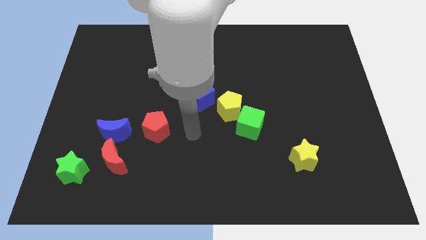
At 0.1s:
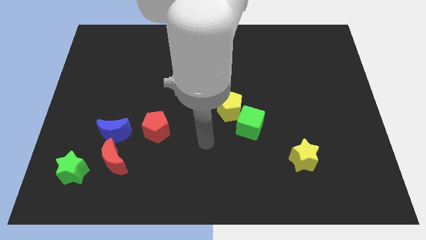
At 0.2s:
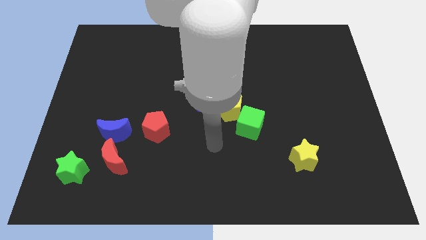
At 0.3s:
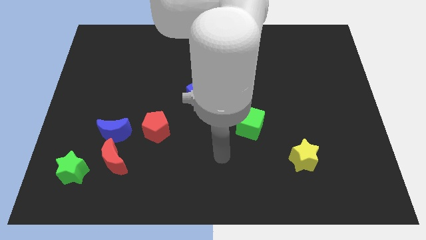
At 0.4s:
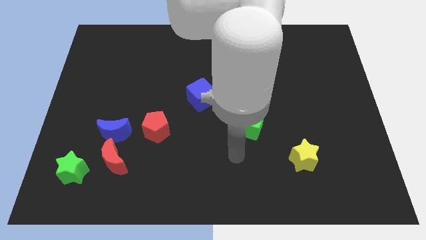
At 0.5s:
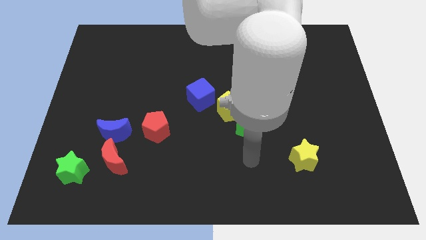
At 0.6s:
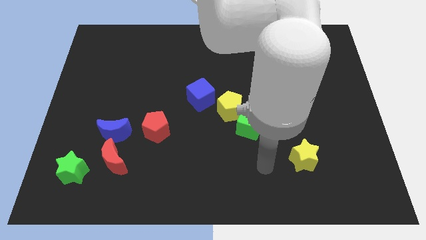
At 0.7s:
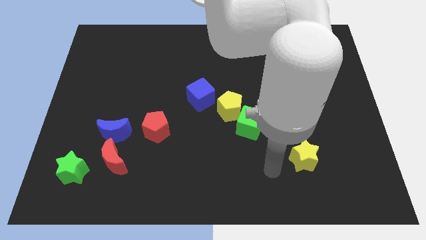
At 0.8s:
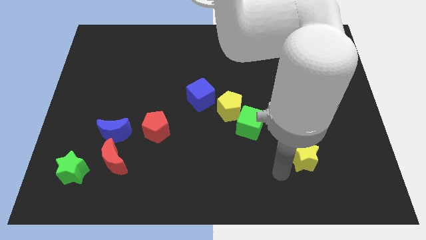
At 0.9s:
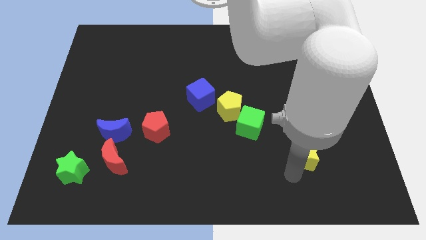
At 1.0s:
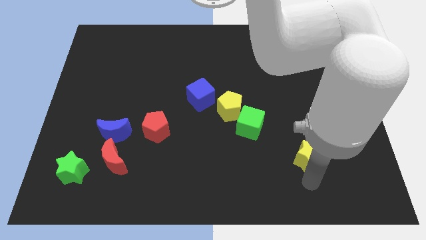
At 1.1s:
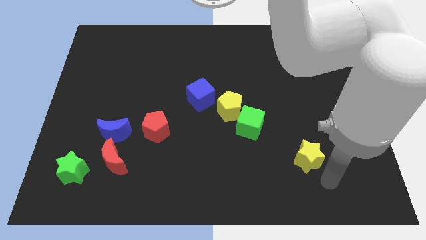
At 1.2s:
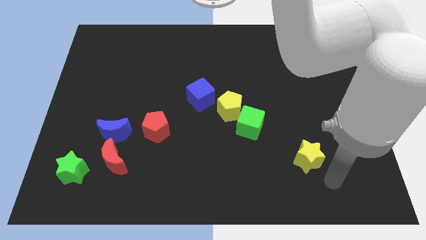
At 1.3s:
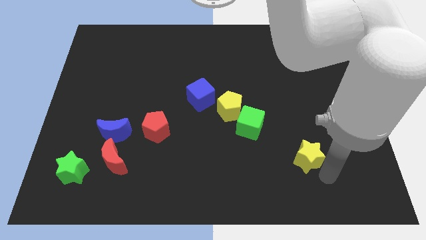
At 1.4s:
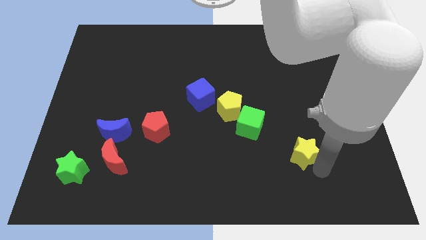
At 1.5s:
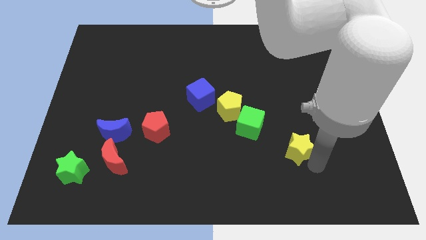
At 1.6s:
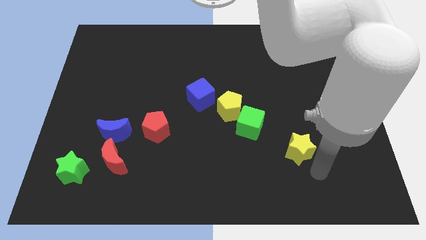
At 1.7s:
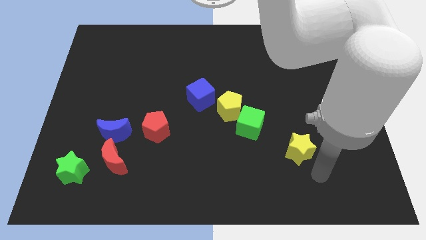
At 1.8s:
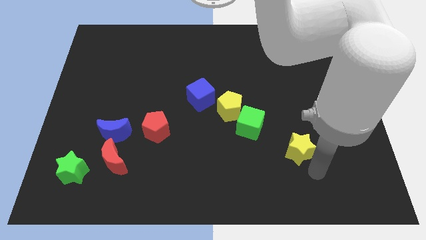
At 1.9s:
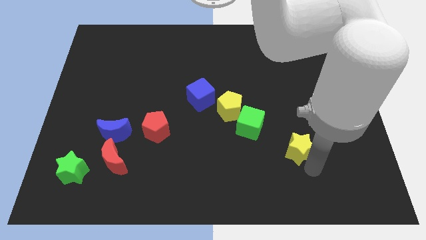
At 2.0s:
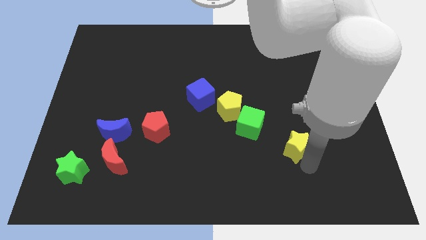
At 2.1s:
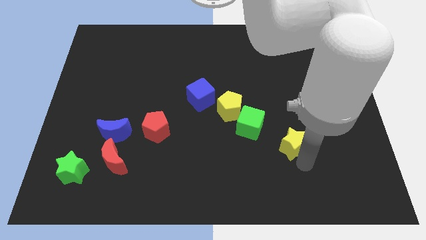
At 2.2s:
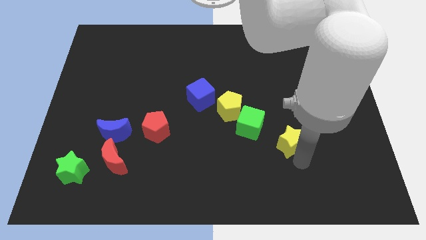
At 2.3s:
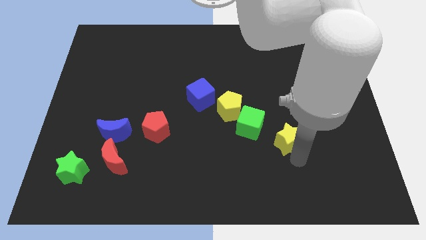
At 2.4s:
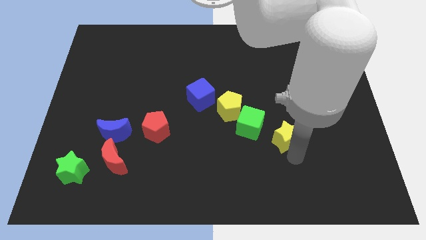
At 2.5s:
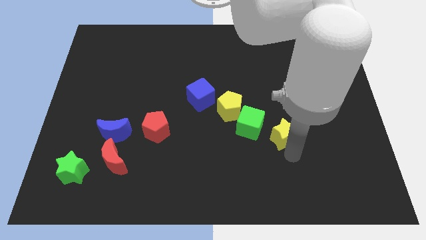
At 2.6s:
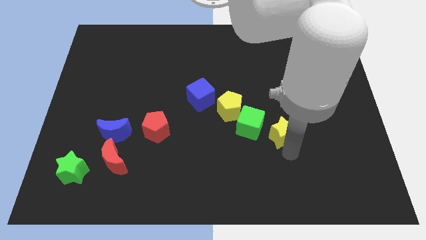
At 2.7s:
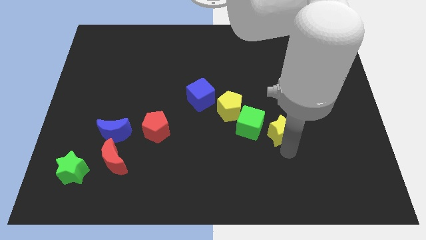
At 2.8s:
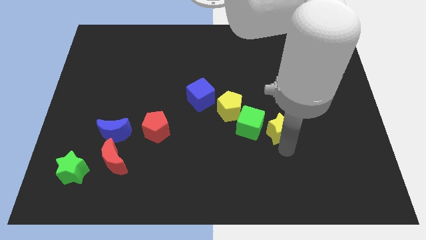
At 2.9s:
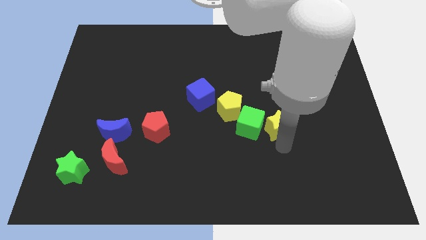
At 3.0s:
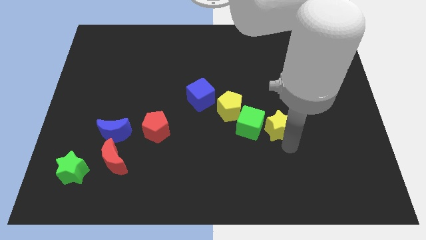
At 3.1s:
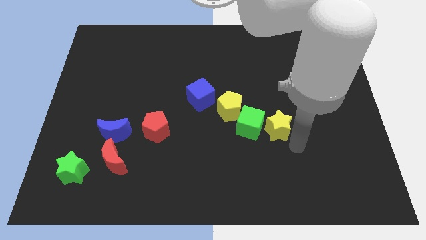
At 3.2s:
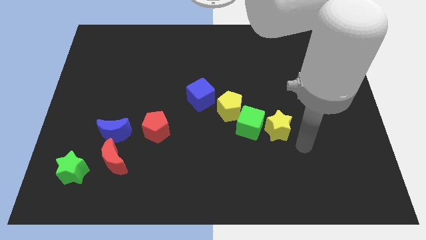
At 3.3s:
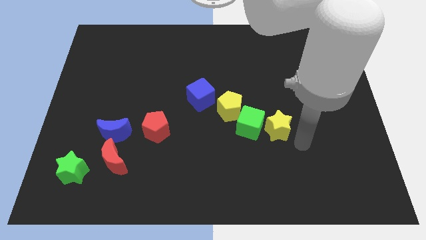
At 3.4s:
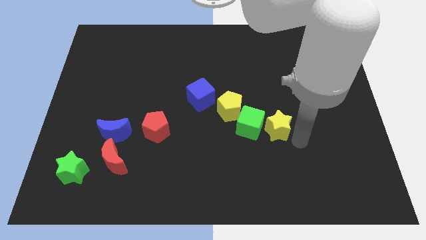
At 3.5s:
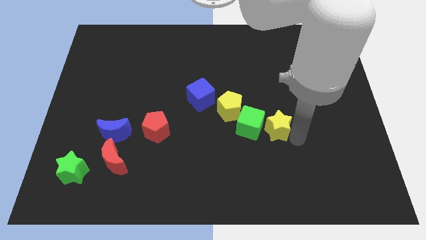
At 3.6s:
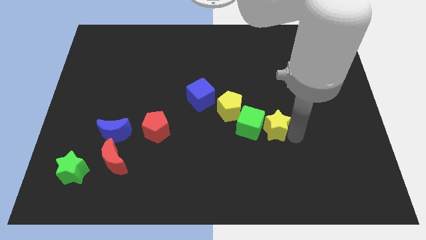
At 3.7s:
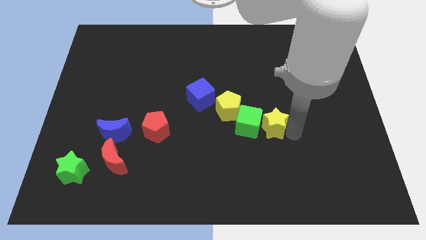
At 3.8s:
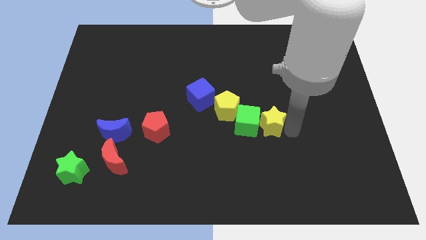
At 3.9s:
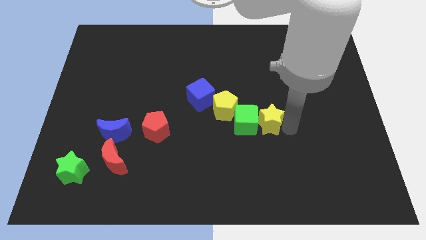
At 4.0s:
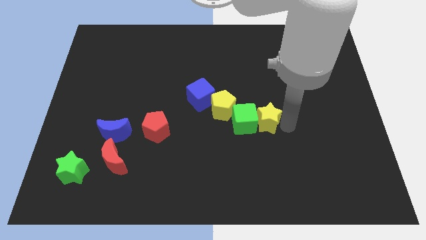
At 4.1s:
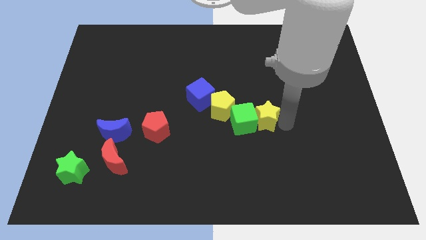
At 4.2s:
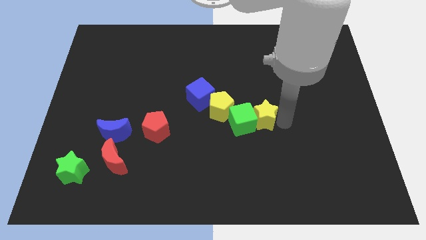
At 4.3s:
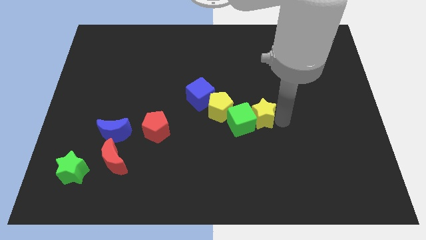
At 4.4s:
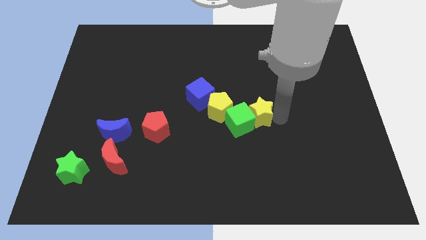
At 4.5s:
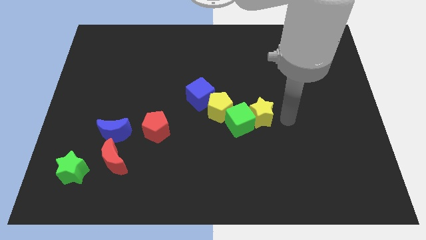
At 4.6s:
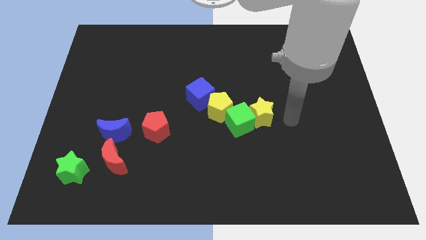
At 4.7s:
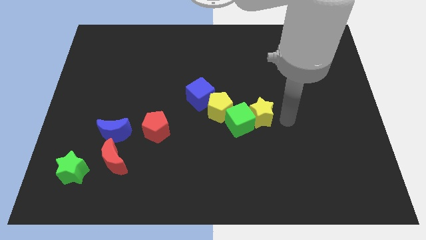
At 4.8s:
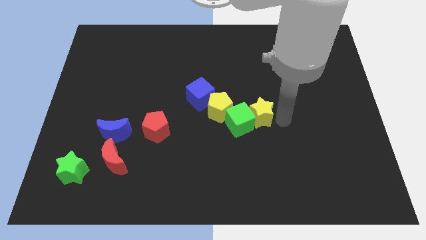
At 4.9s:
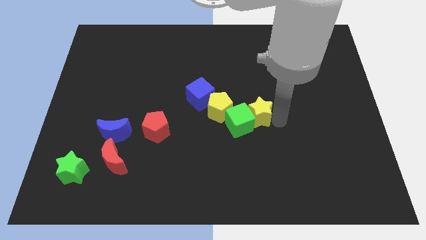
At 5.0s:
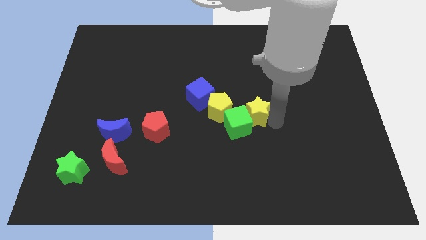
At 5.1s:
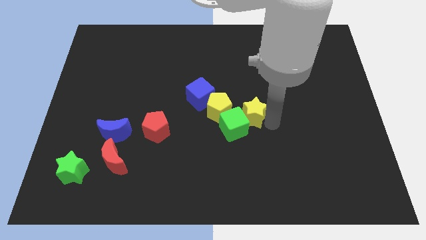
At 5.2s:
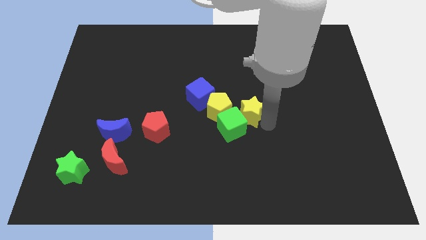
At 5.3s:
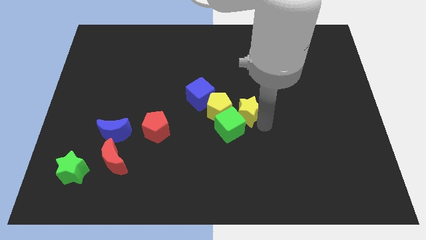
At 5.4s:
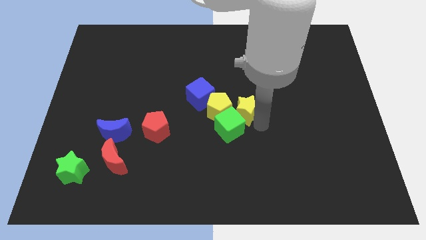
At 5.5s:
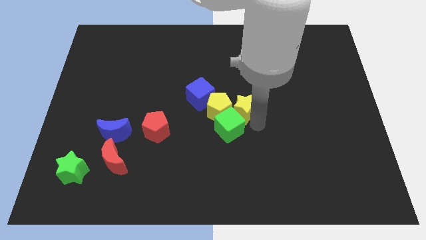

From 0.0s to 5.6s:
move the yellow star next to the yellow pentagon

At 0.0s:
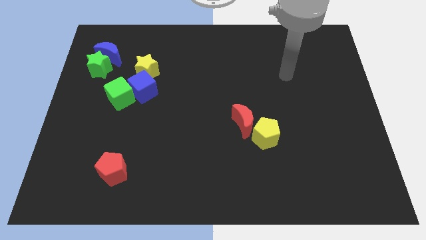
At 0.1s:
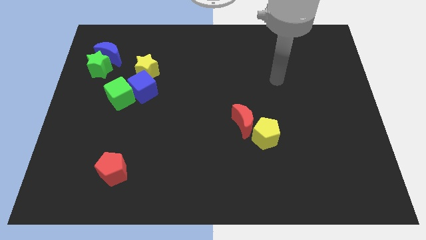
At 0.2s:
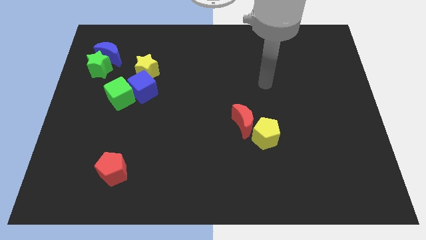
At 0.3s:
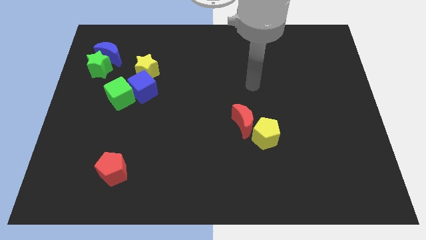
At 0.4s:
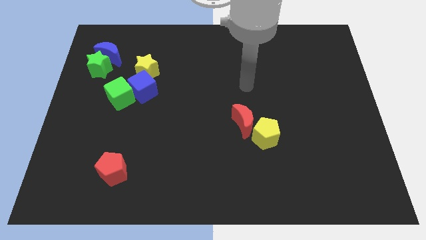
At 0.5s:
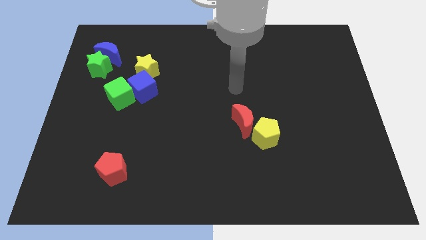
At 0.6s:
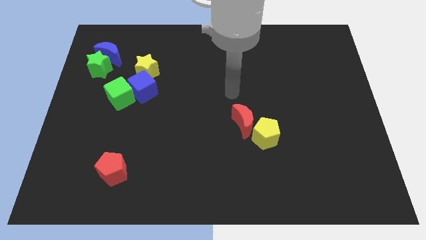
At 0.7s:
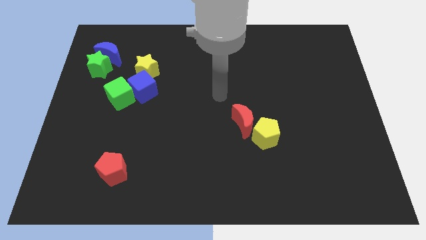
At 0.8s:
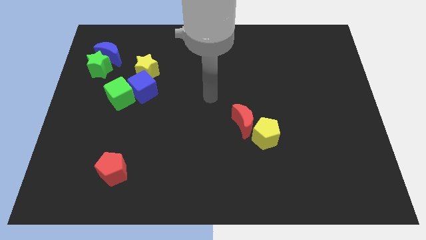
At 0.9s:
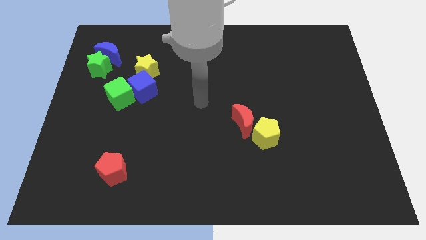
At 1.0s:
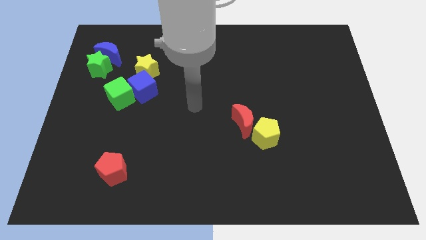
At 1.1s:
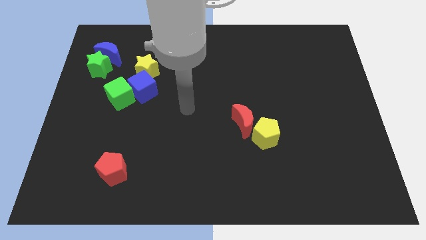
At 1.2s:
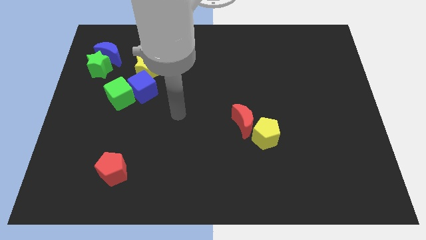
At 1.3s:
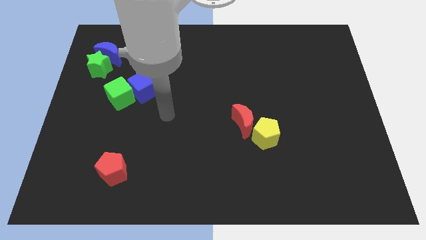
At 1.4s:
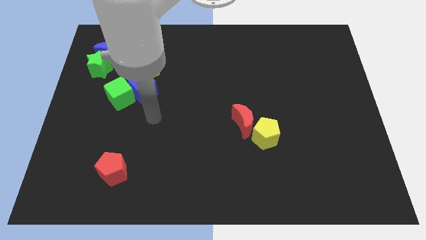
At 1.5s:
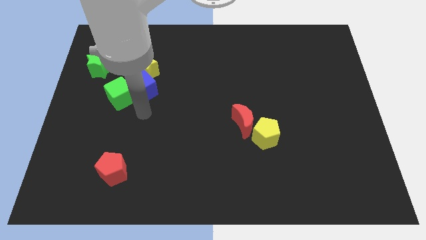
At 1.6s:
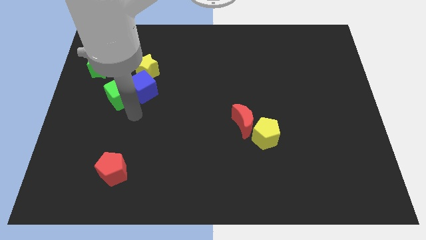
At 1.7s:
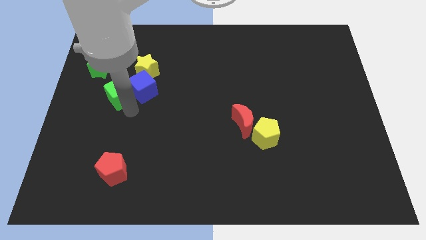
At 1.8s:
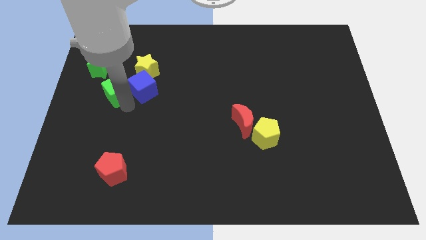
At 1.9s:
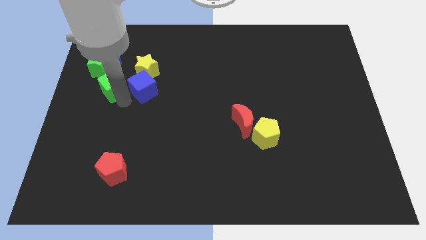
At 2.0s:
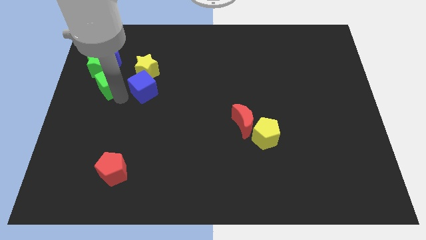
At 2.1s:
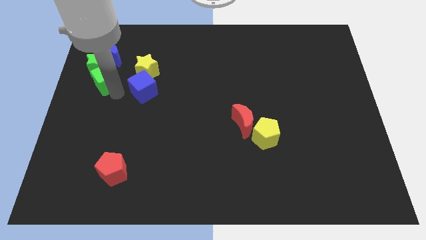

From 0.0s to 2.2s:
slide the green cube to the green star
